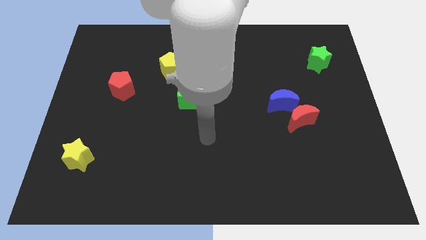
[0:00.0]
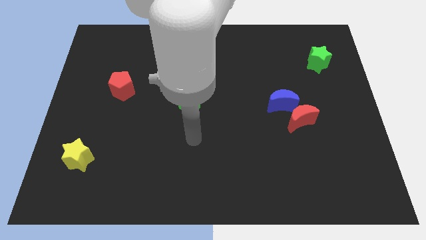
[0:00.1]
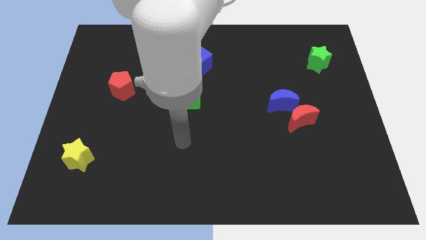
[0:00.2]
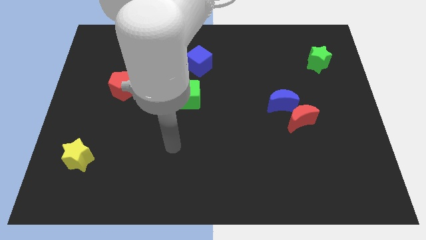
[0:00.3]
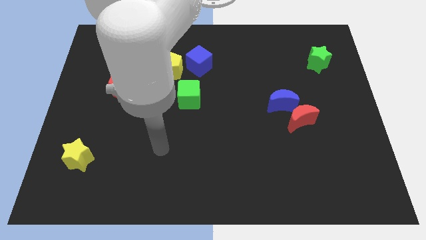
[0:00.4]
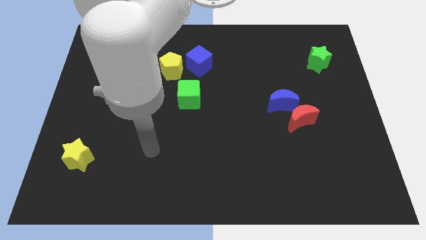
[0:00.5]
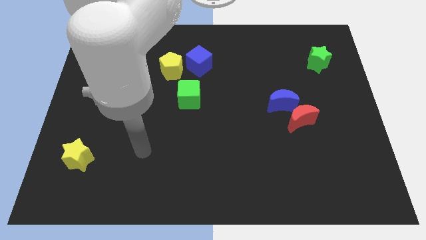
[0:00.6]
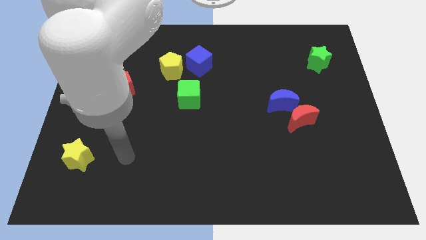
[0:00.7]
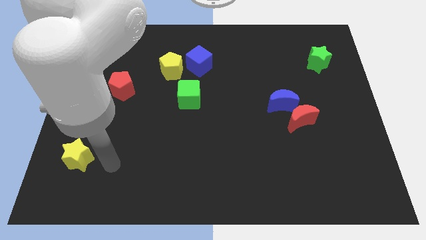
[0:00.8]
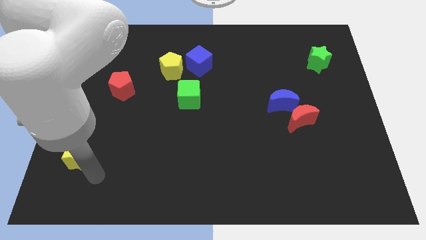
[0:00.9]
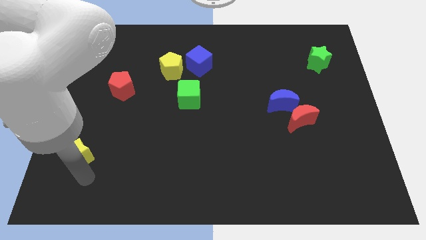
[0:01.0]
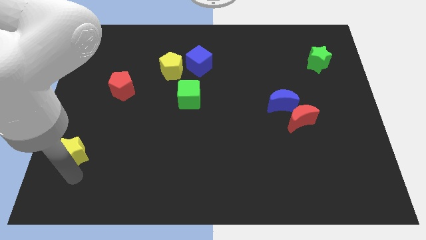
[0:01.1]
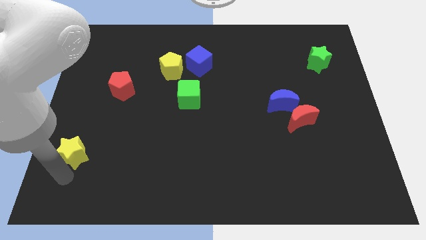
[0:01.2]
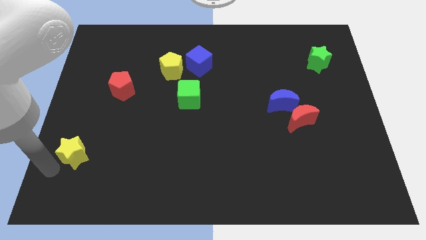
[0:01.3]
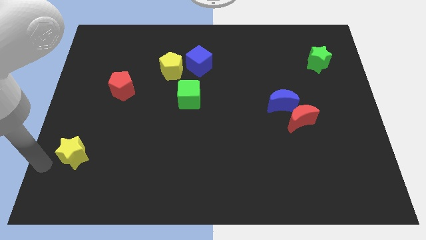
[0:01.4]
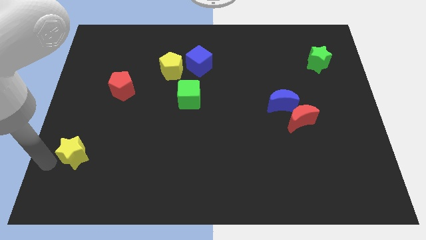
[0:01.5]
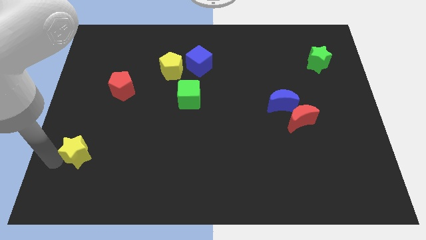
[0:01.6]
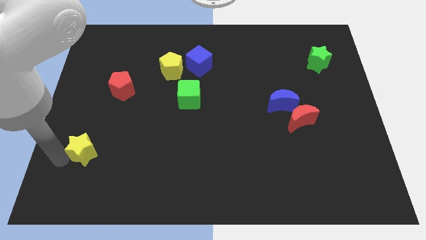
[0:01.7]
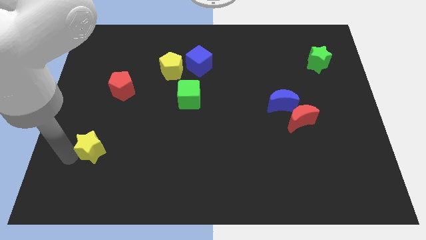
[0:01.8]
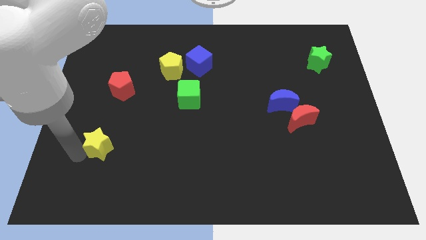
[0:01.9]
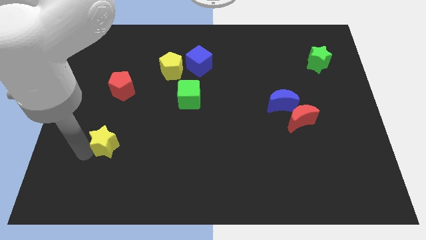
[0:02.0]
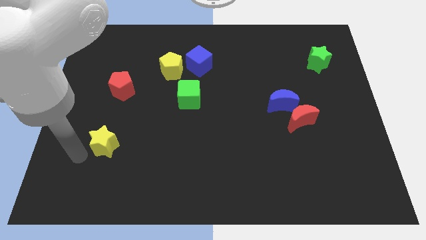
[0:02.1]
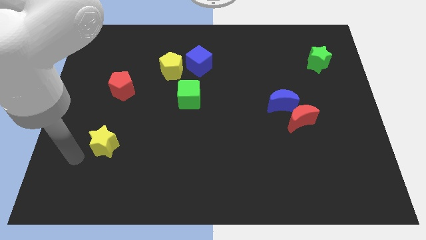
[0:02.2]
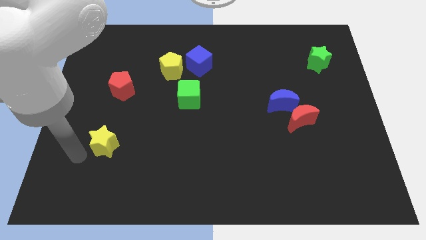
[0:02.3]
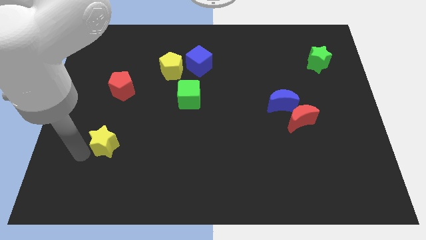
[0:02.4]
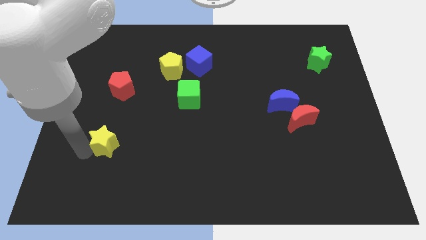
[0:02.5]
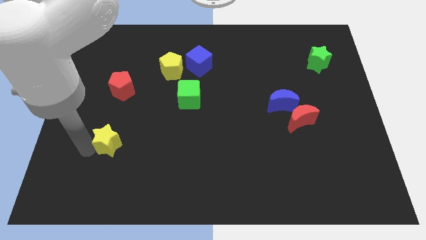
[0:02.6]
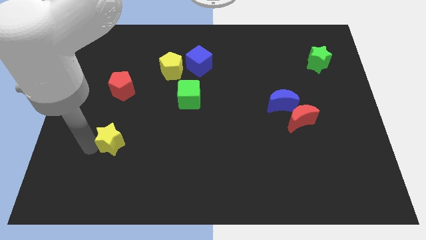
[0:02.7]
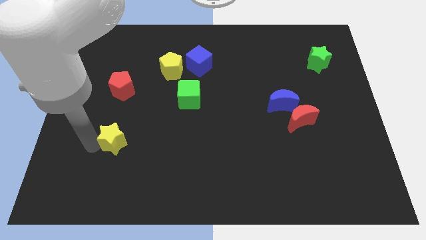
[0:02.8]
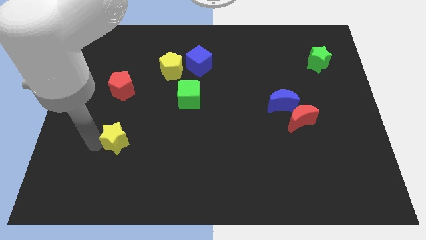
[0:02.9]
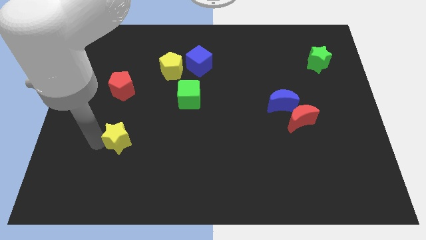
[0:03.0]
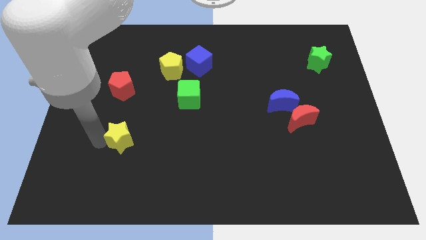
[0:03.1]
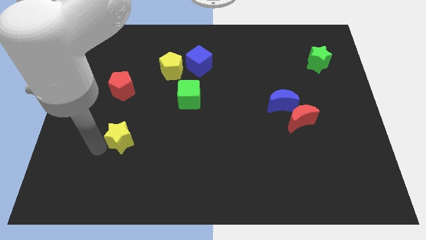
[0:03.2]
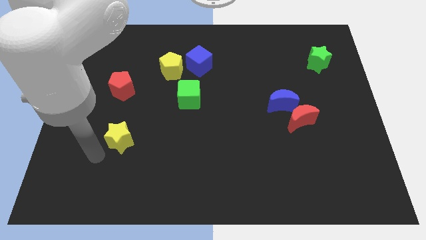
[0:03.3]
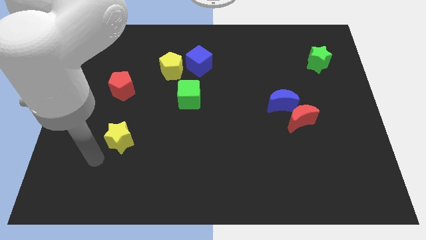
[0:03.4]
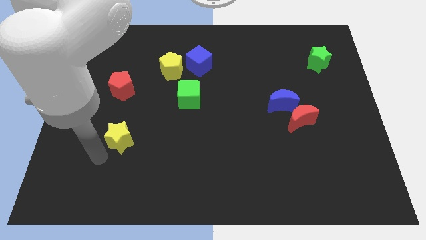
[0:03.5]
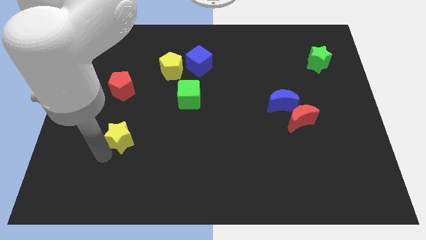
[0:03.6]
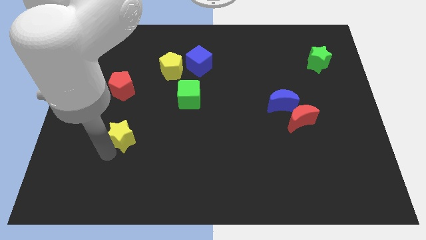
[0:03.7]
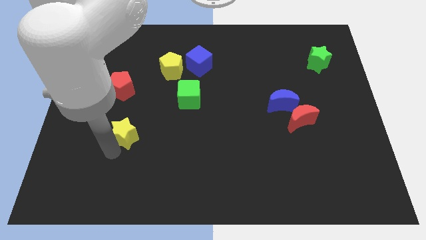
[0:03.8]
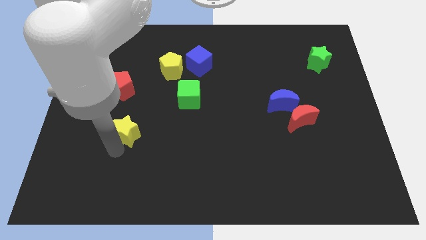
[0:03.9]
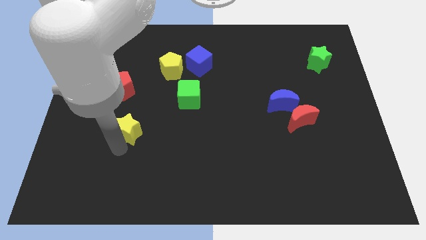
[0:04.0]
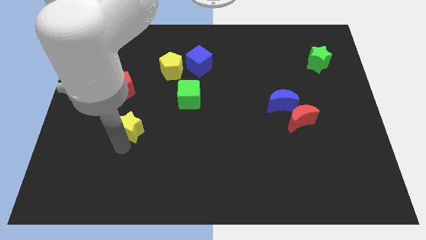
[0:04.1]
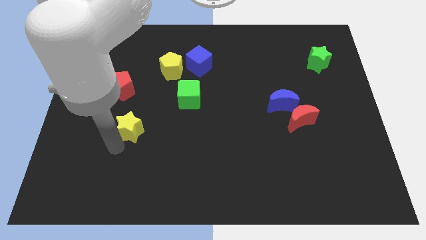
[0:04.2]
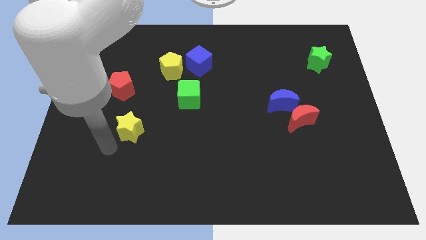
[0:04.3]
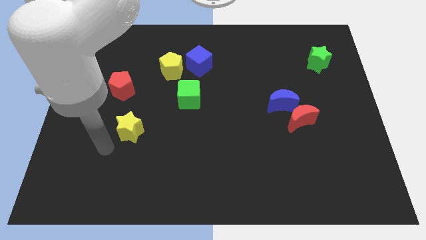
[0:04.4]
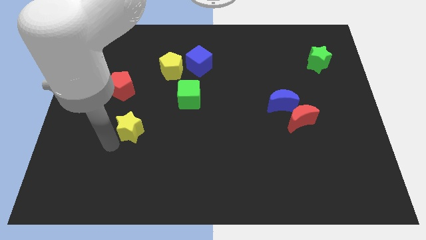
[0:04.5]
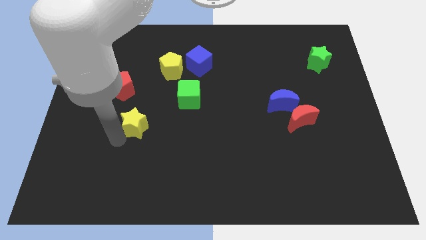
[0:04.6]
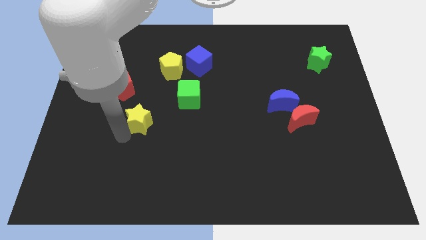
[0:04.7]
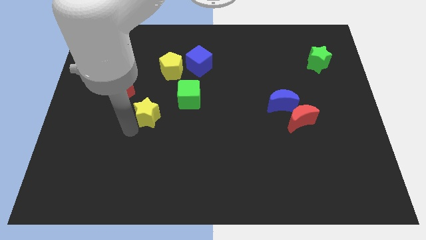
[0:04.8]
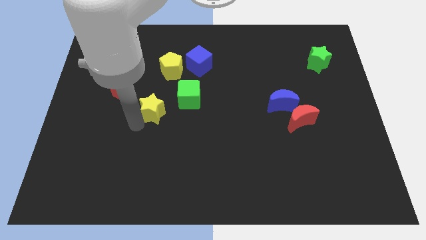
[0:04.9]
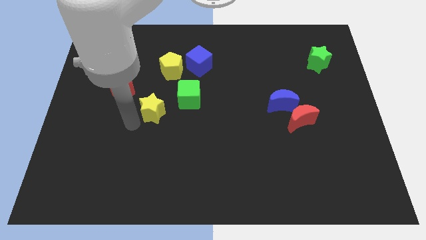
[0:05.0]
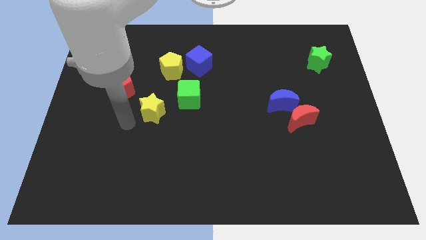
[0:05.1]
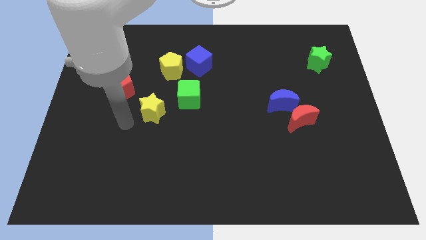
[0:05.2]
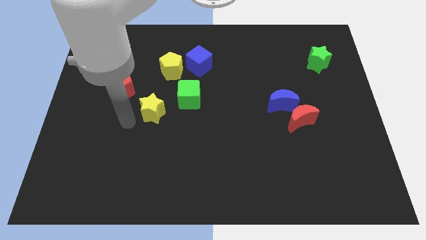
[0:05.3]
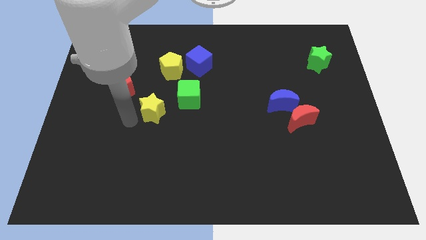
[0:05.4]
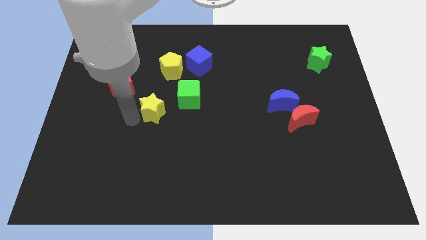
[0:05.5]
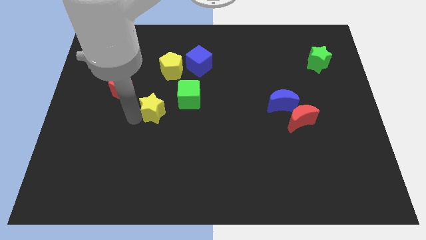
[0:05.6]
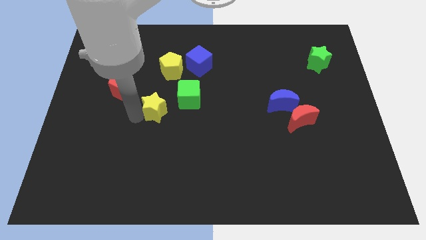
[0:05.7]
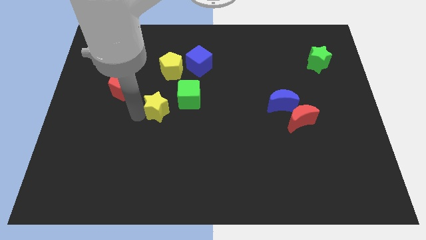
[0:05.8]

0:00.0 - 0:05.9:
push the yellow star up and right

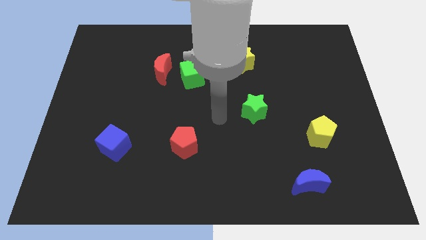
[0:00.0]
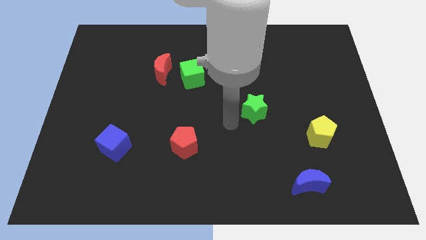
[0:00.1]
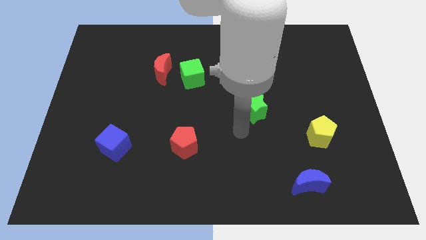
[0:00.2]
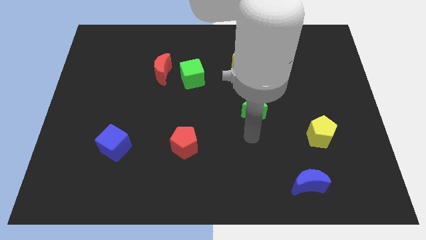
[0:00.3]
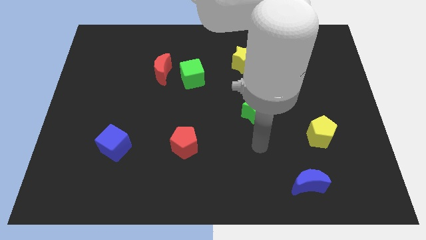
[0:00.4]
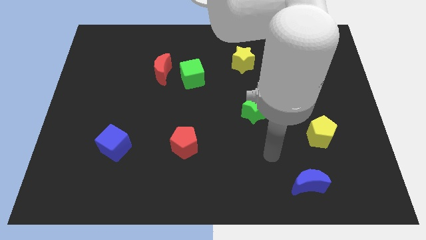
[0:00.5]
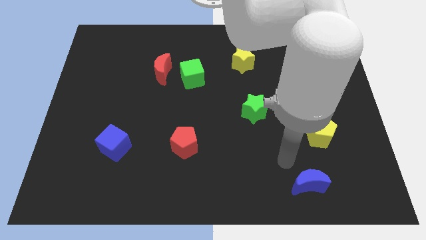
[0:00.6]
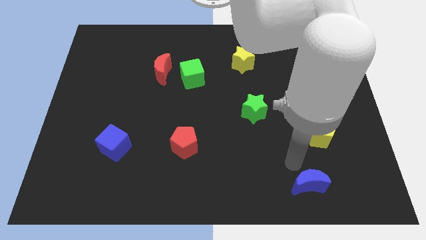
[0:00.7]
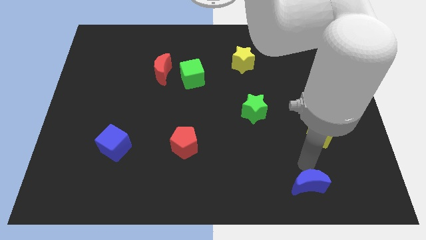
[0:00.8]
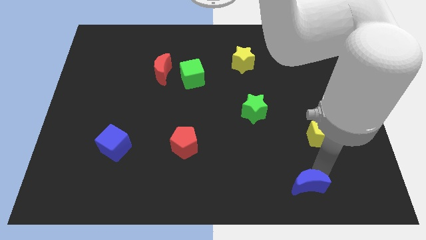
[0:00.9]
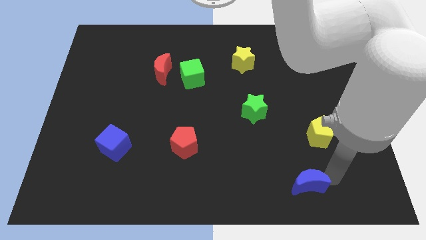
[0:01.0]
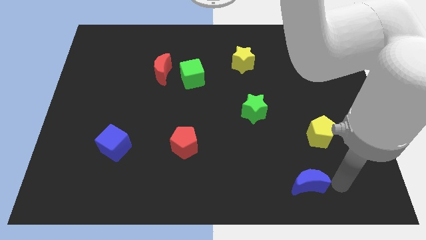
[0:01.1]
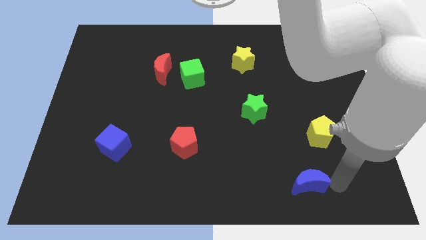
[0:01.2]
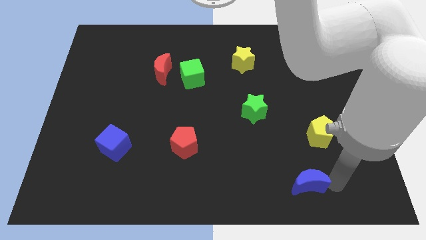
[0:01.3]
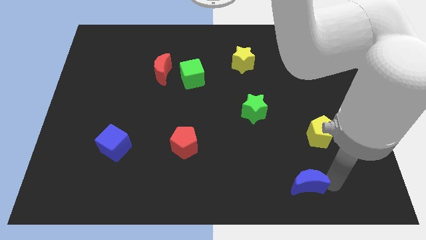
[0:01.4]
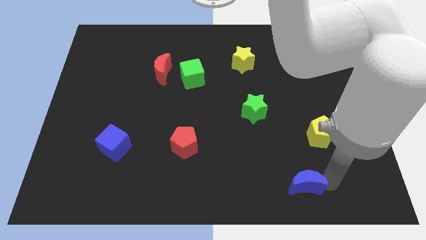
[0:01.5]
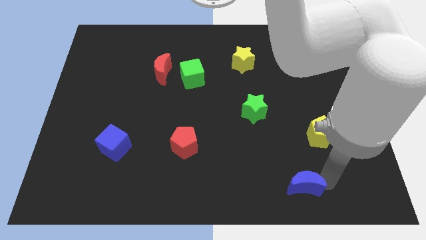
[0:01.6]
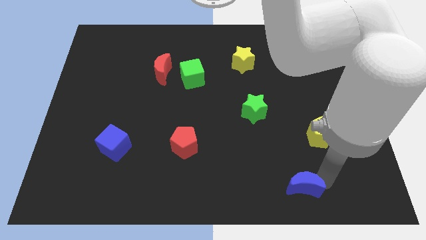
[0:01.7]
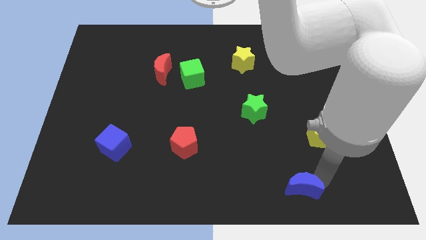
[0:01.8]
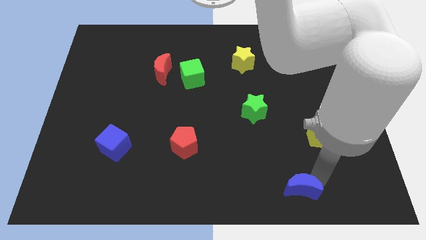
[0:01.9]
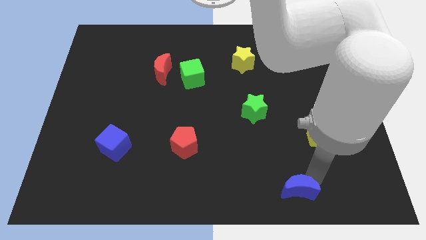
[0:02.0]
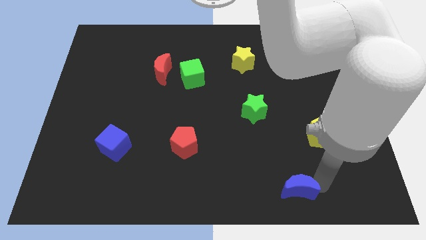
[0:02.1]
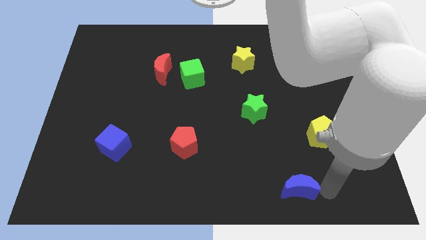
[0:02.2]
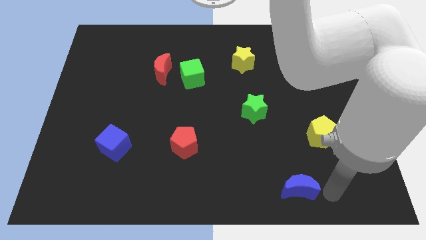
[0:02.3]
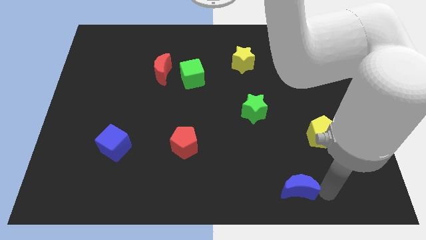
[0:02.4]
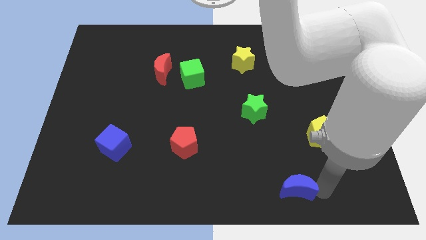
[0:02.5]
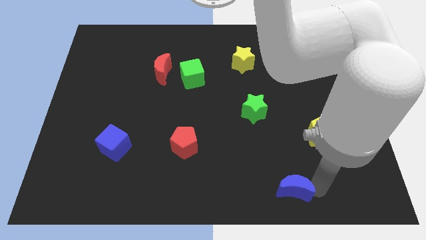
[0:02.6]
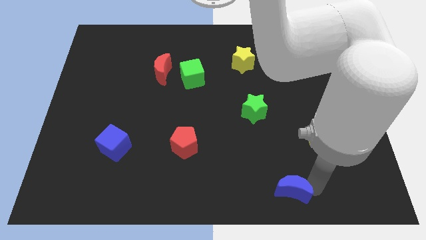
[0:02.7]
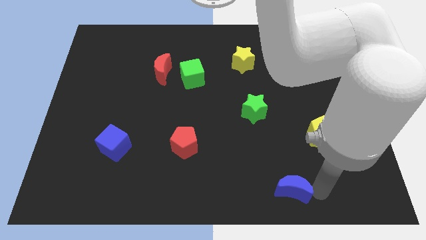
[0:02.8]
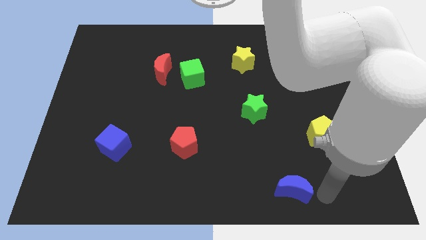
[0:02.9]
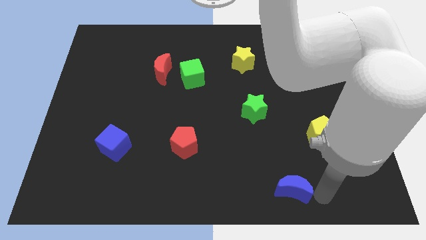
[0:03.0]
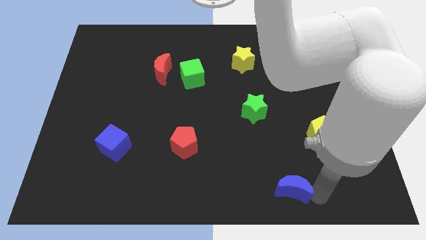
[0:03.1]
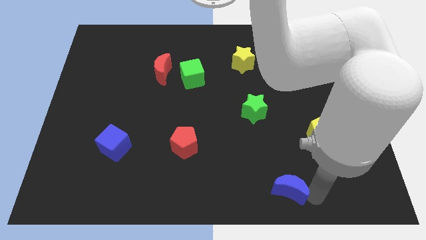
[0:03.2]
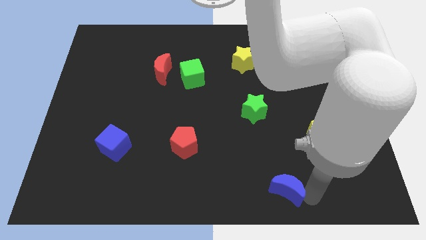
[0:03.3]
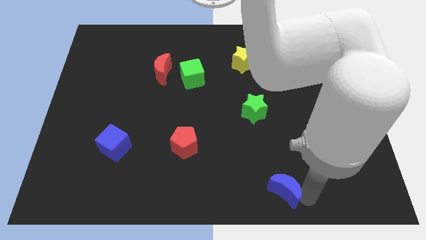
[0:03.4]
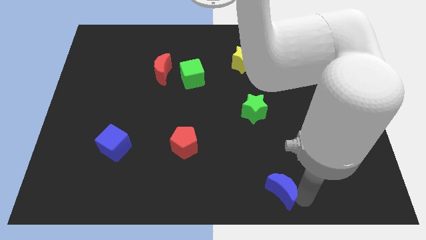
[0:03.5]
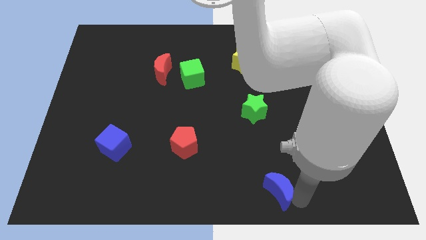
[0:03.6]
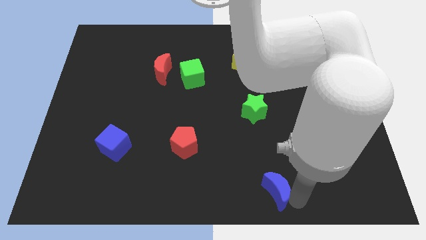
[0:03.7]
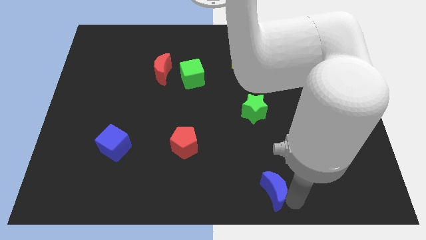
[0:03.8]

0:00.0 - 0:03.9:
slightly slide the blue moon left
